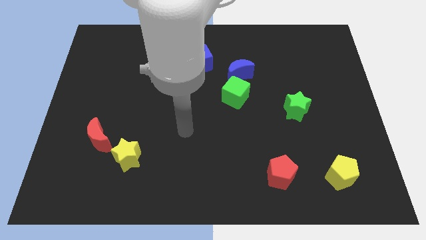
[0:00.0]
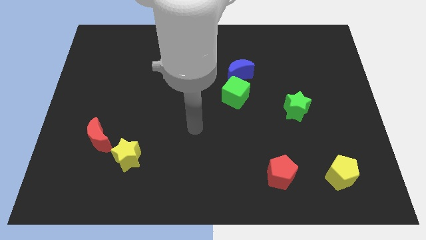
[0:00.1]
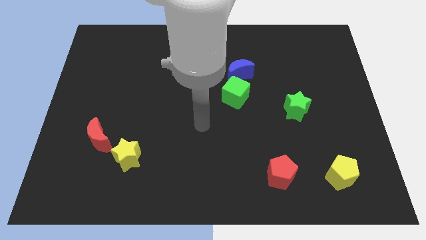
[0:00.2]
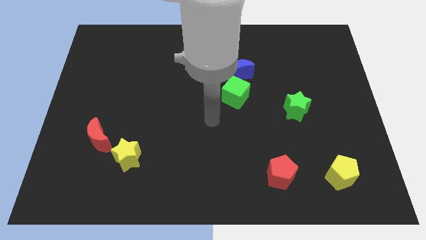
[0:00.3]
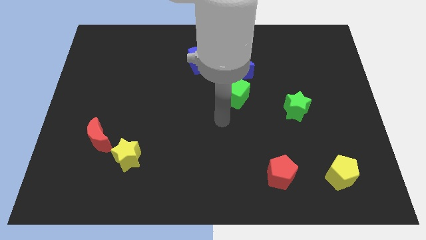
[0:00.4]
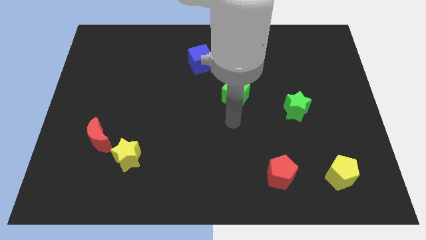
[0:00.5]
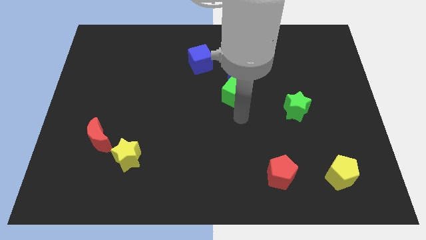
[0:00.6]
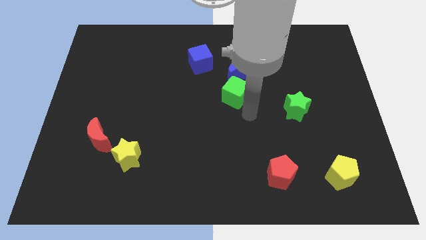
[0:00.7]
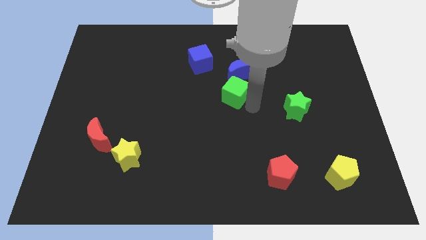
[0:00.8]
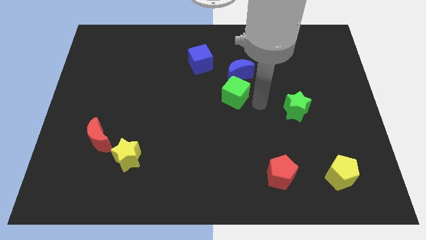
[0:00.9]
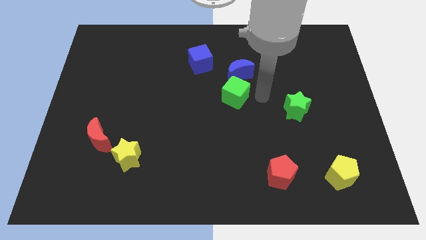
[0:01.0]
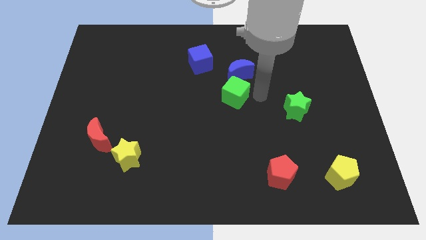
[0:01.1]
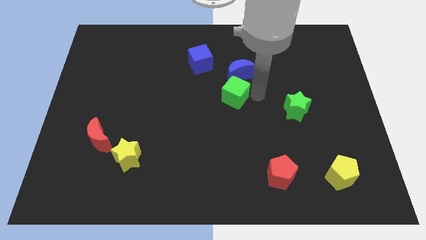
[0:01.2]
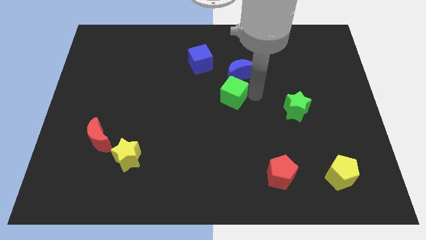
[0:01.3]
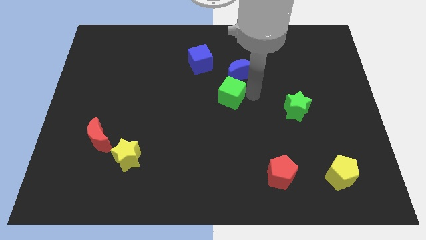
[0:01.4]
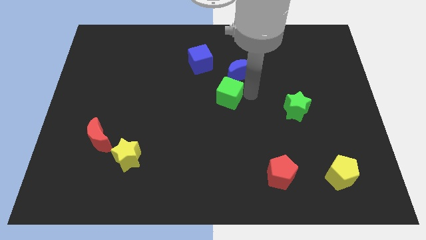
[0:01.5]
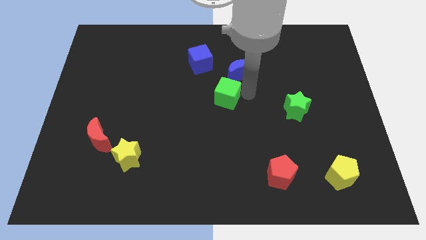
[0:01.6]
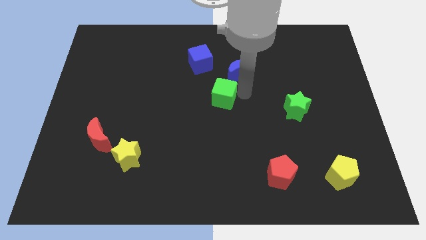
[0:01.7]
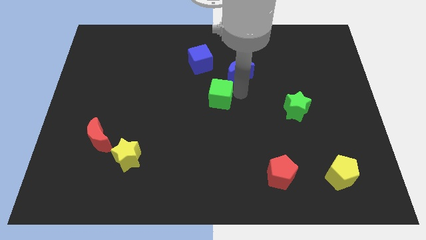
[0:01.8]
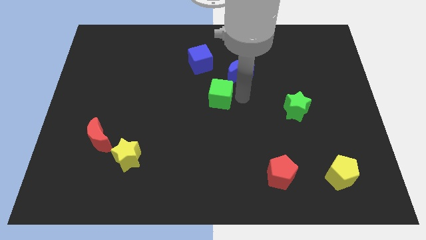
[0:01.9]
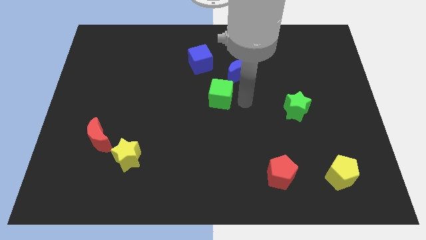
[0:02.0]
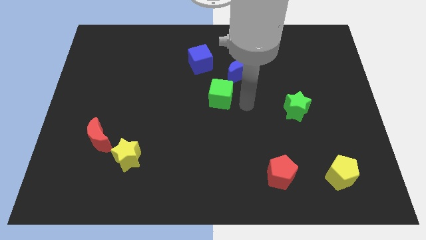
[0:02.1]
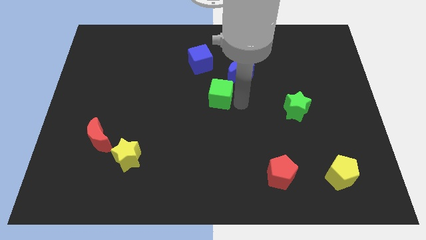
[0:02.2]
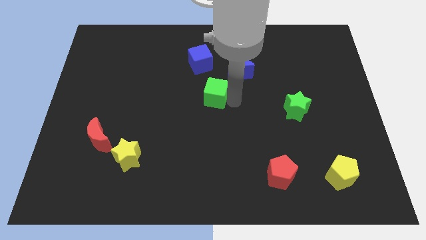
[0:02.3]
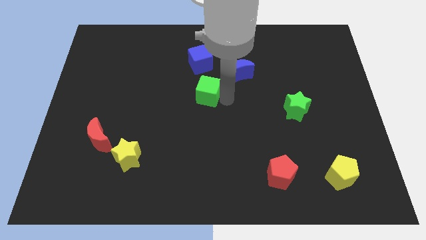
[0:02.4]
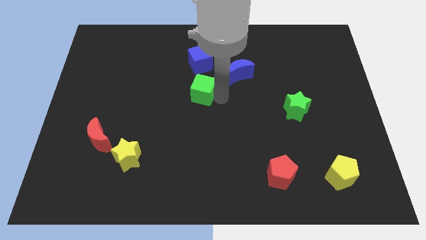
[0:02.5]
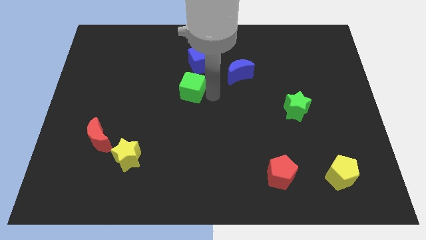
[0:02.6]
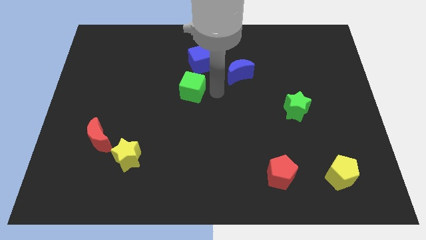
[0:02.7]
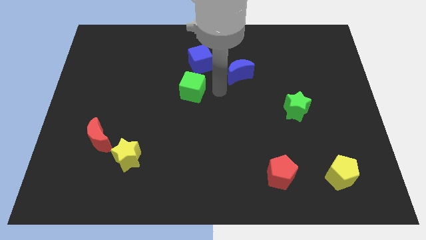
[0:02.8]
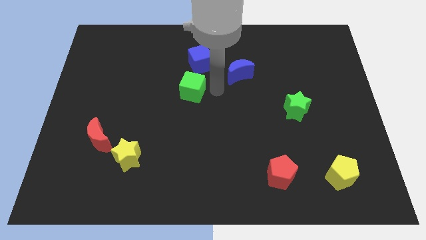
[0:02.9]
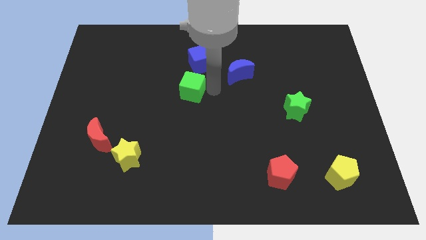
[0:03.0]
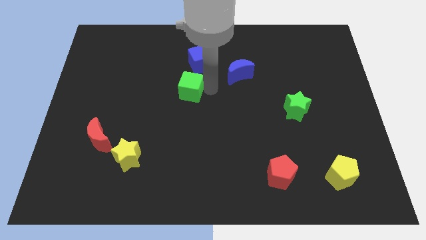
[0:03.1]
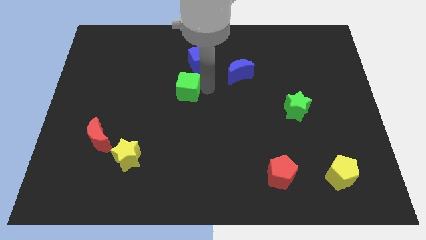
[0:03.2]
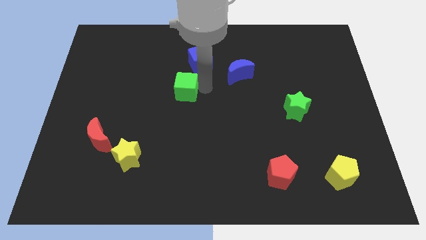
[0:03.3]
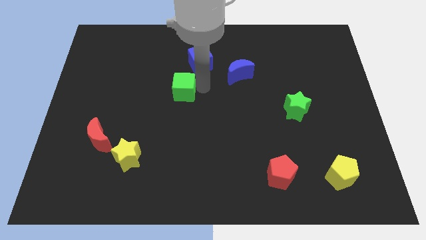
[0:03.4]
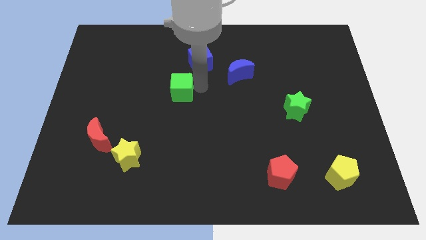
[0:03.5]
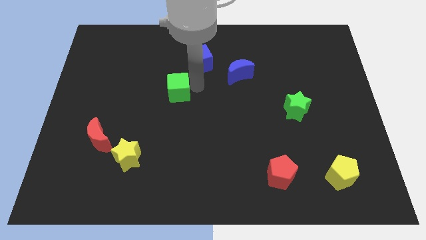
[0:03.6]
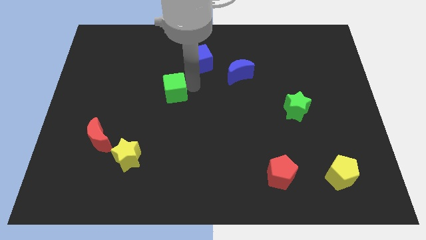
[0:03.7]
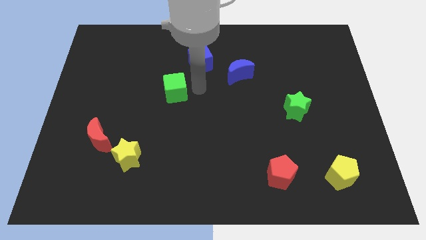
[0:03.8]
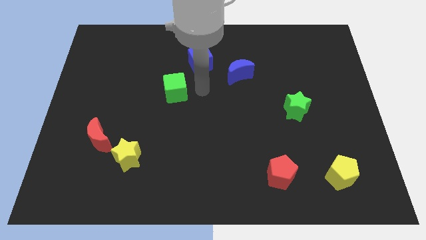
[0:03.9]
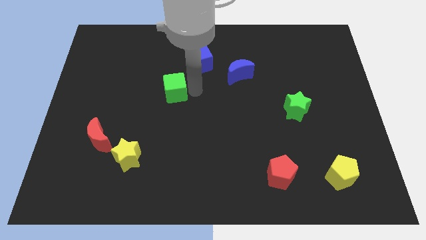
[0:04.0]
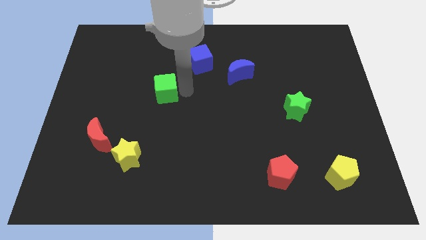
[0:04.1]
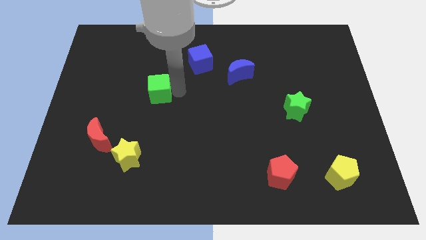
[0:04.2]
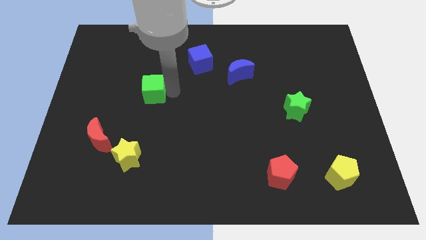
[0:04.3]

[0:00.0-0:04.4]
move the green cube to the left

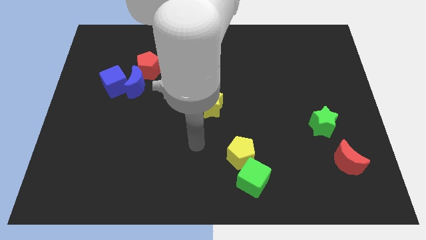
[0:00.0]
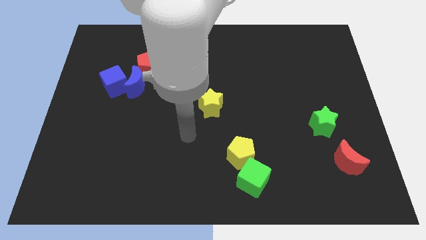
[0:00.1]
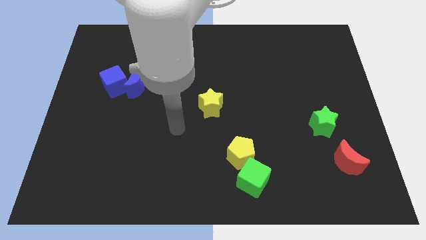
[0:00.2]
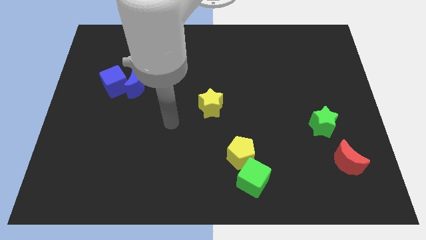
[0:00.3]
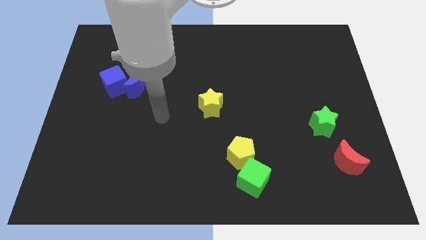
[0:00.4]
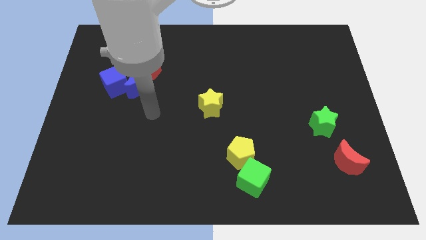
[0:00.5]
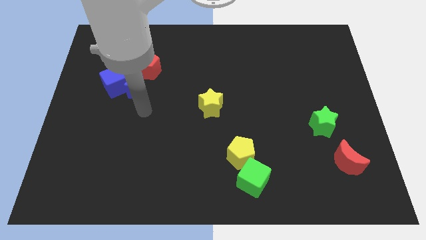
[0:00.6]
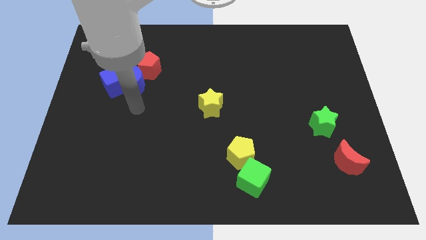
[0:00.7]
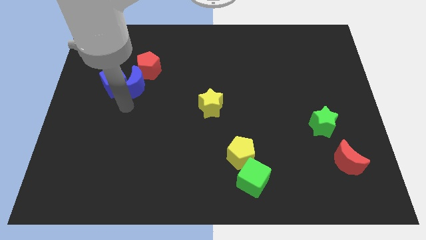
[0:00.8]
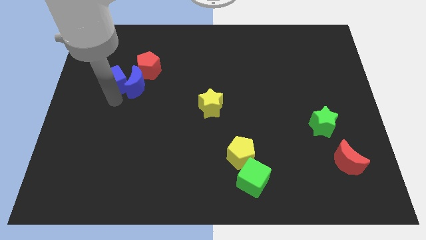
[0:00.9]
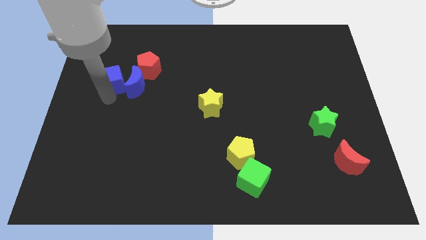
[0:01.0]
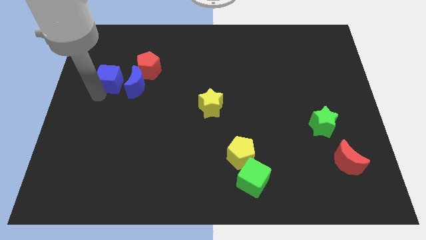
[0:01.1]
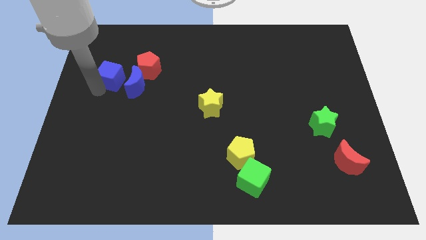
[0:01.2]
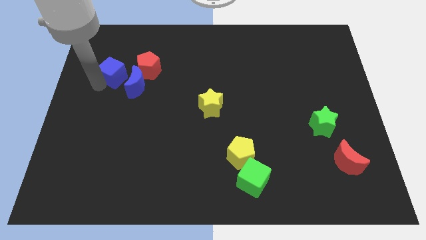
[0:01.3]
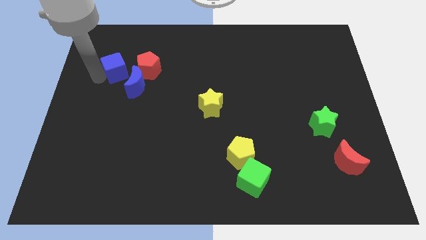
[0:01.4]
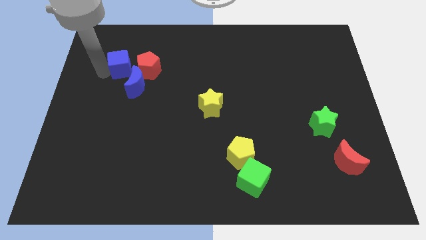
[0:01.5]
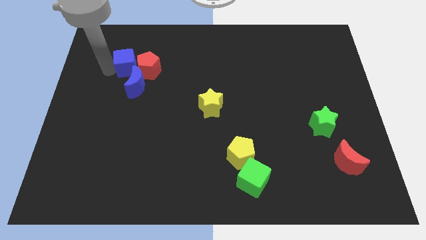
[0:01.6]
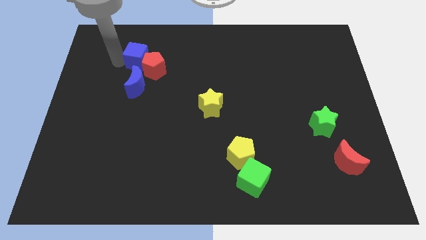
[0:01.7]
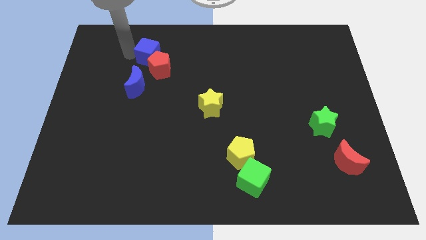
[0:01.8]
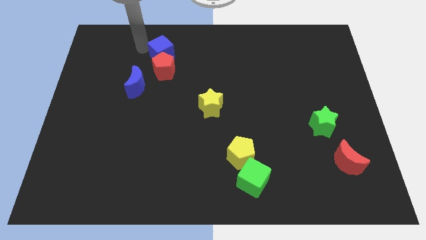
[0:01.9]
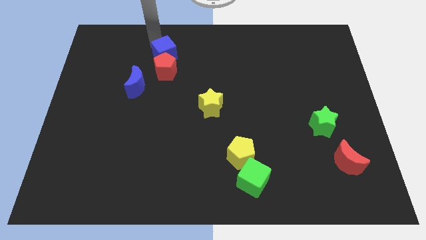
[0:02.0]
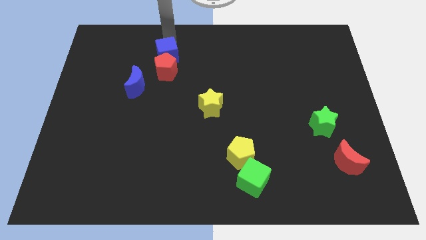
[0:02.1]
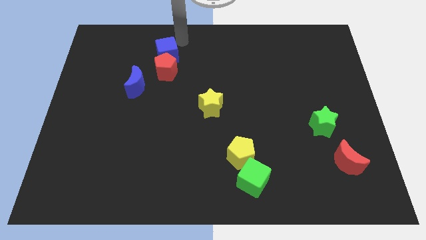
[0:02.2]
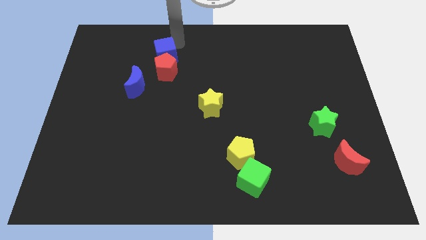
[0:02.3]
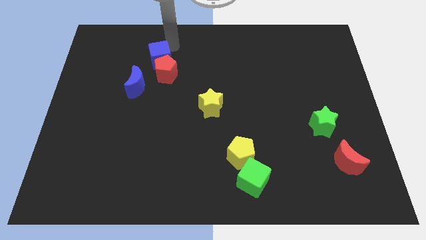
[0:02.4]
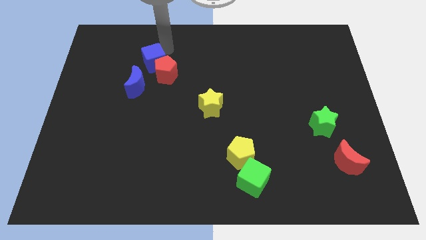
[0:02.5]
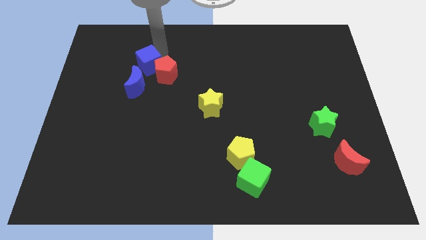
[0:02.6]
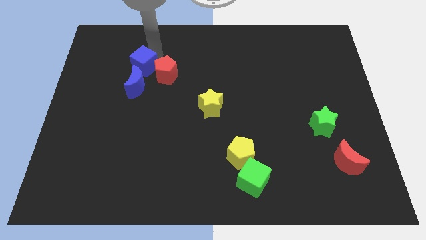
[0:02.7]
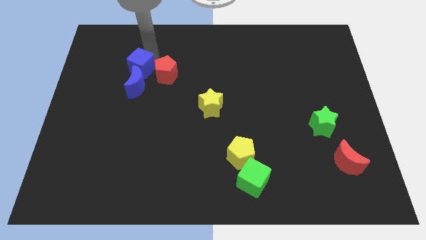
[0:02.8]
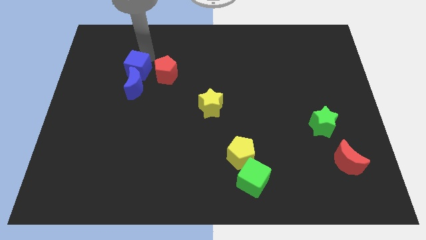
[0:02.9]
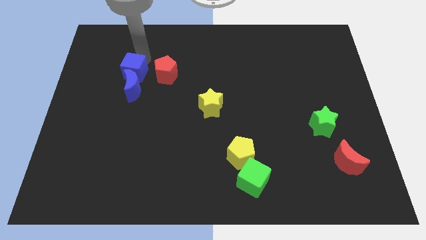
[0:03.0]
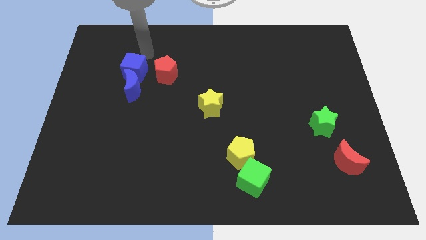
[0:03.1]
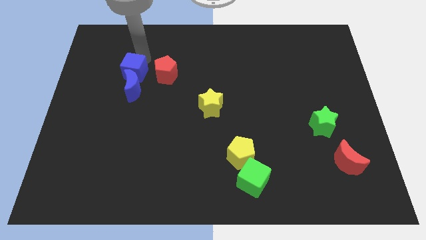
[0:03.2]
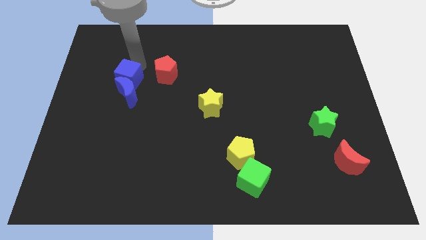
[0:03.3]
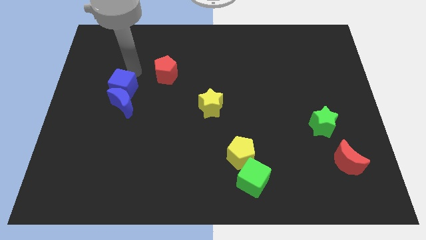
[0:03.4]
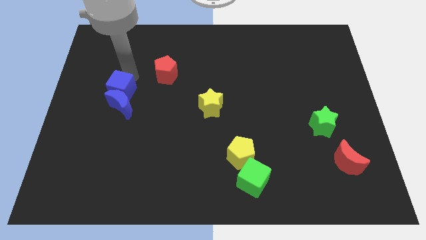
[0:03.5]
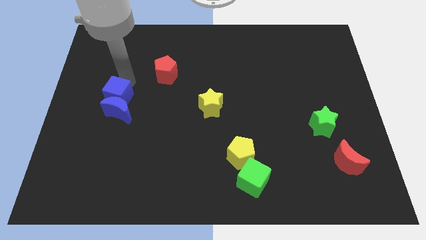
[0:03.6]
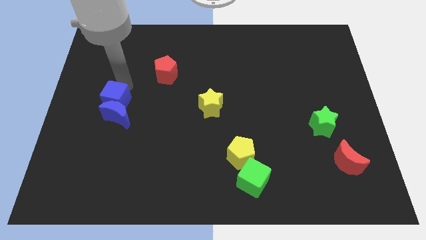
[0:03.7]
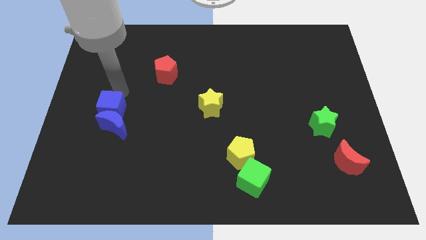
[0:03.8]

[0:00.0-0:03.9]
slightly slide the blue cube downwards
